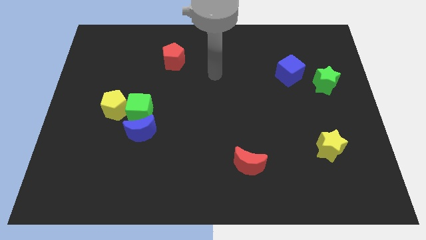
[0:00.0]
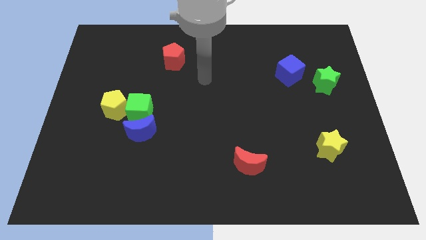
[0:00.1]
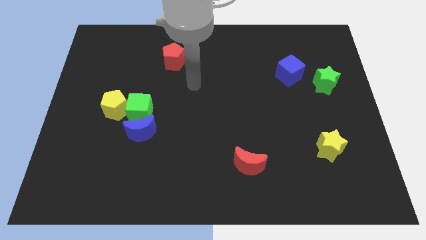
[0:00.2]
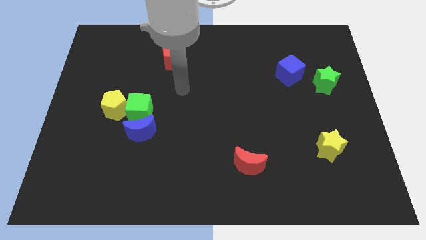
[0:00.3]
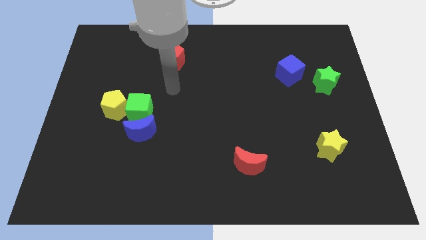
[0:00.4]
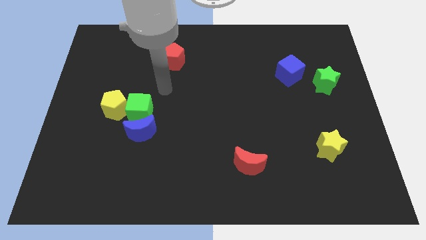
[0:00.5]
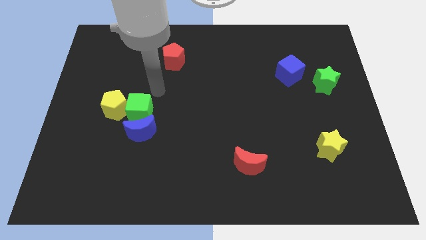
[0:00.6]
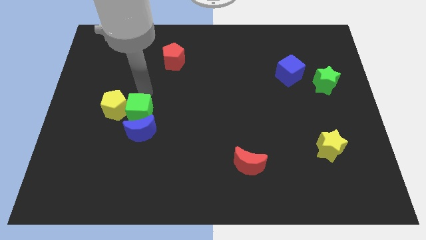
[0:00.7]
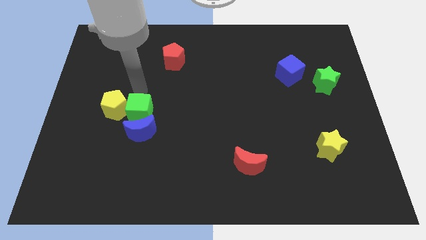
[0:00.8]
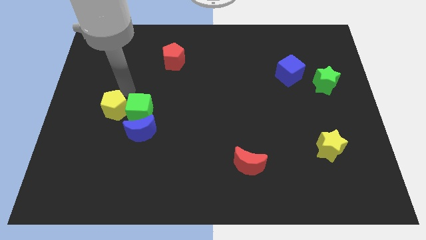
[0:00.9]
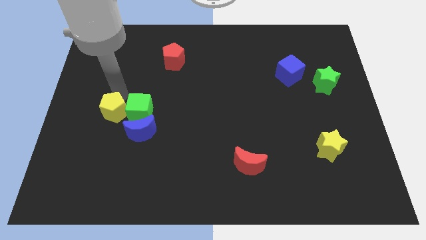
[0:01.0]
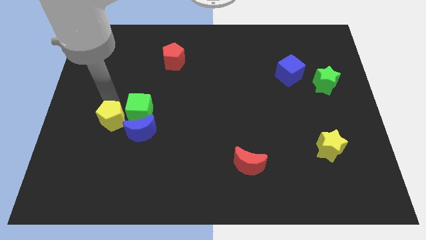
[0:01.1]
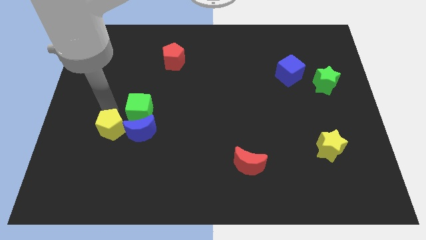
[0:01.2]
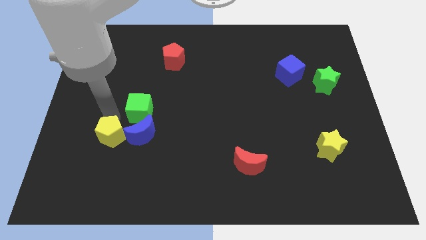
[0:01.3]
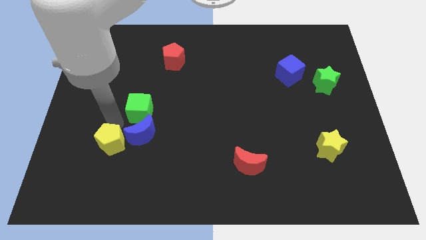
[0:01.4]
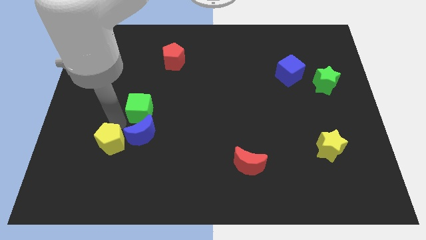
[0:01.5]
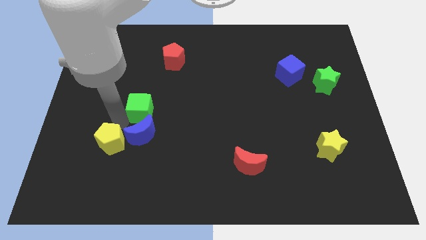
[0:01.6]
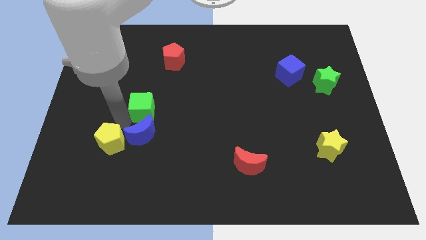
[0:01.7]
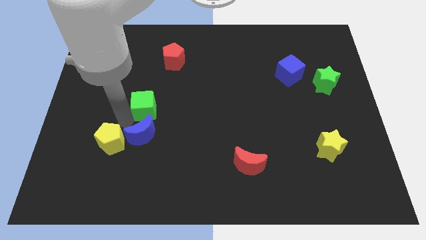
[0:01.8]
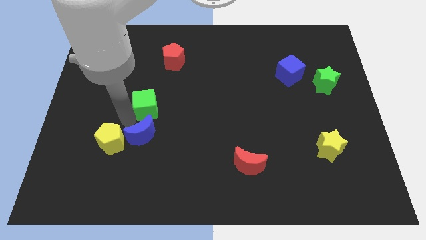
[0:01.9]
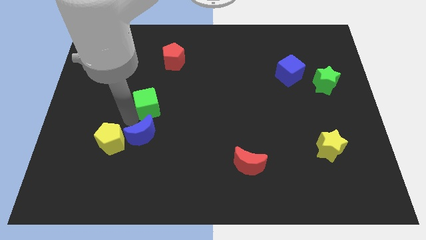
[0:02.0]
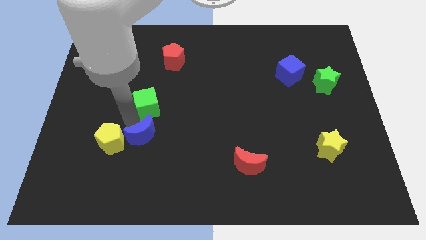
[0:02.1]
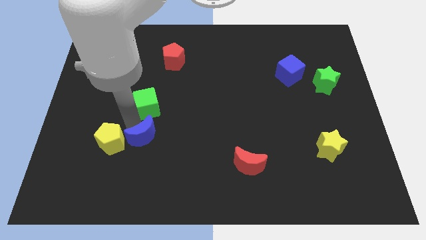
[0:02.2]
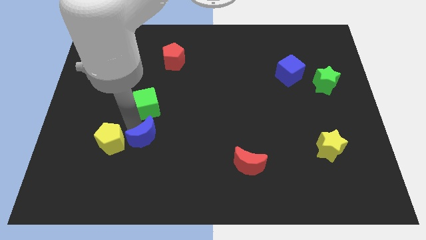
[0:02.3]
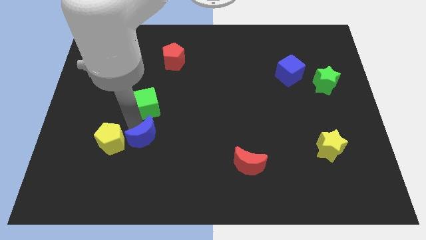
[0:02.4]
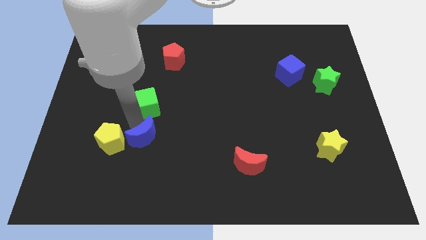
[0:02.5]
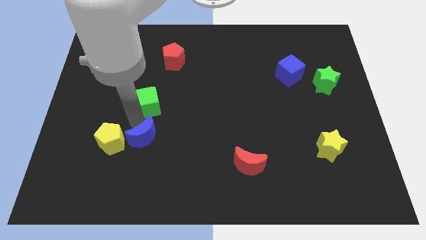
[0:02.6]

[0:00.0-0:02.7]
pull the green cube apart from the yellow pentagon and blue moon

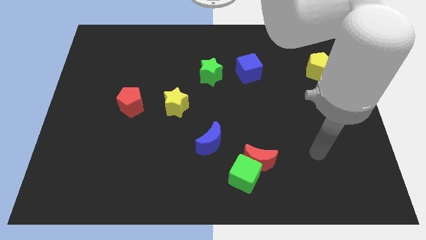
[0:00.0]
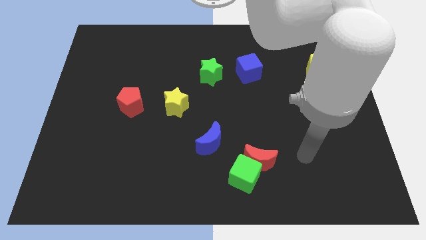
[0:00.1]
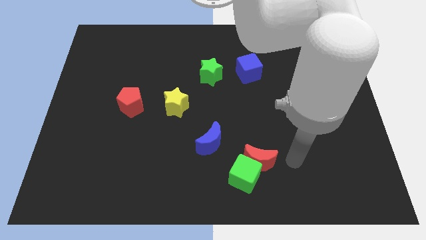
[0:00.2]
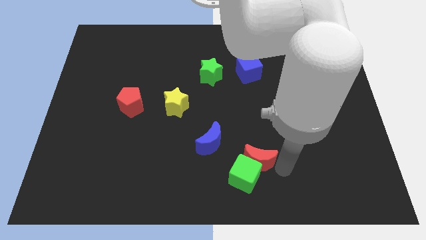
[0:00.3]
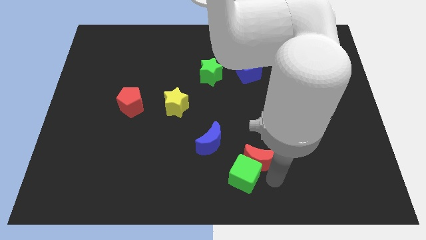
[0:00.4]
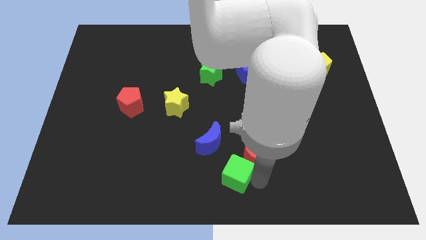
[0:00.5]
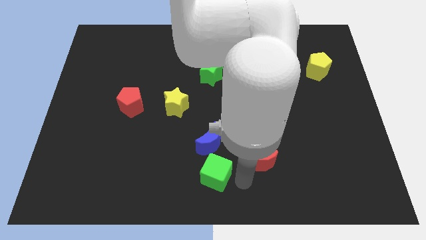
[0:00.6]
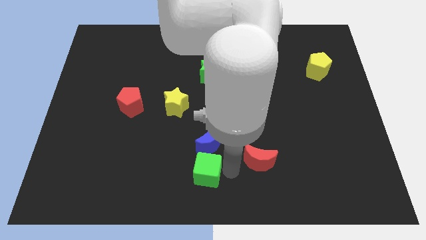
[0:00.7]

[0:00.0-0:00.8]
move the red moon away from the green cube

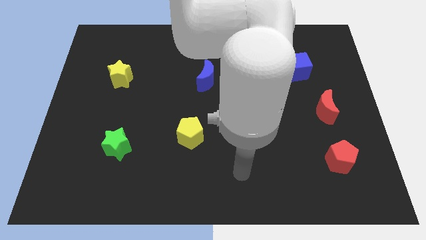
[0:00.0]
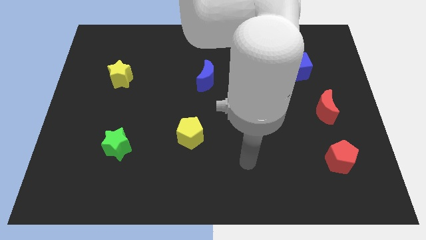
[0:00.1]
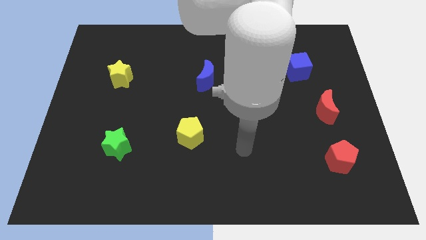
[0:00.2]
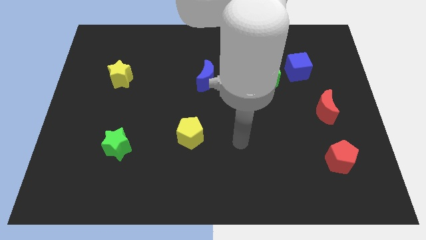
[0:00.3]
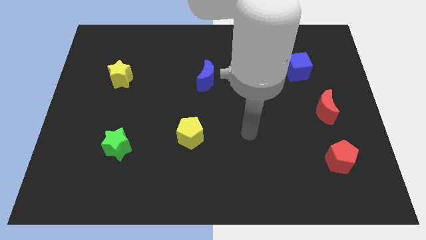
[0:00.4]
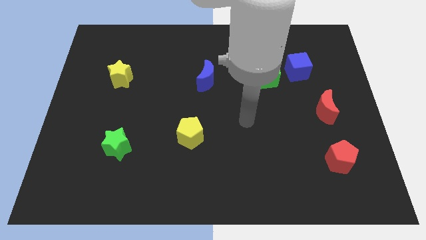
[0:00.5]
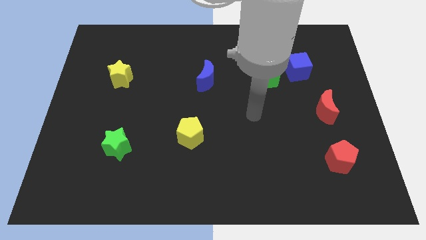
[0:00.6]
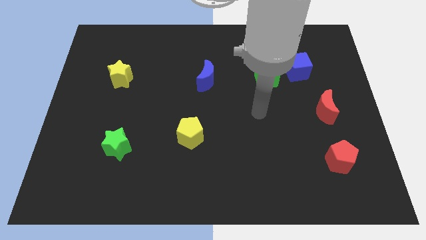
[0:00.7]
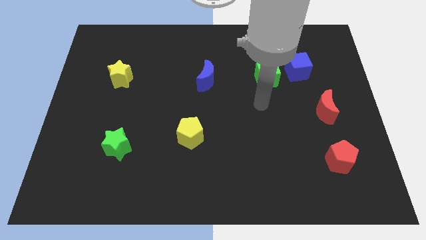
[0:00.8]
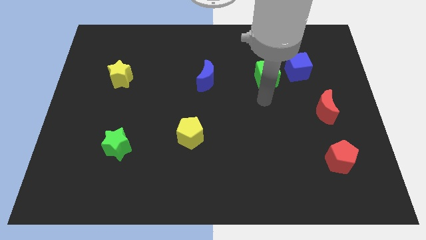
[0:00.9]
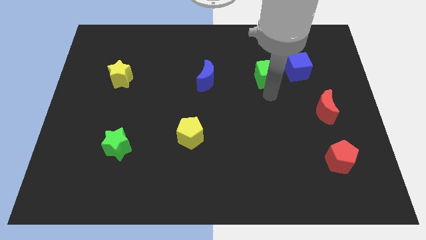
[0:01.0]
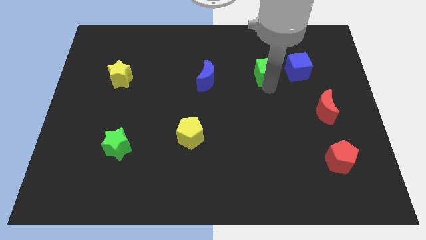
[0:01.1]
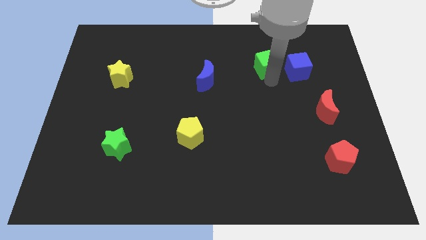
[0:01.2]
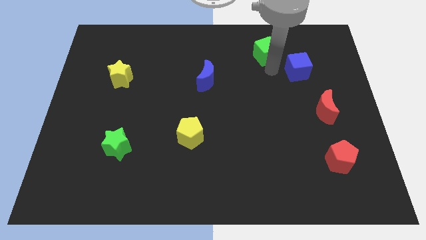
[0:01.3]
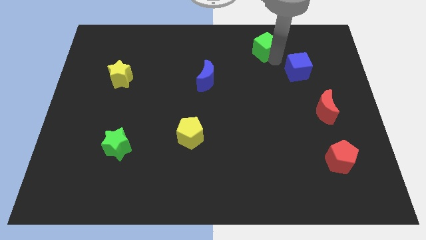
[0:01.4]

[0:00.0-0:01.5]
move the blue cube away from the green cube

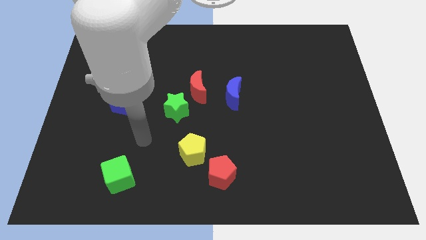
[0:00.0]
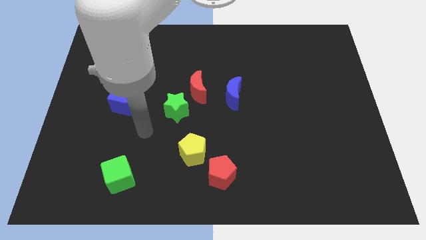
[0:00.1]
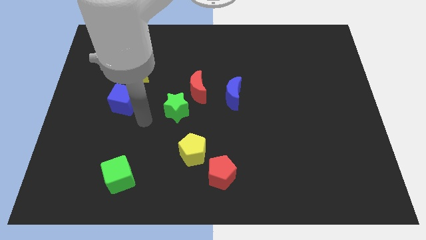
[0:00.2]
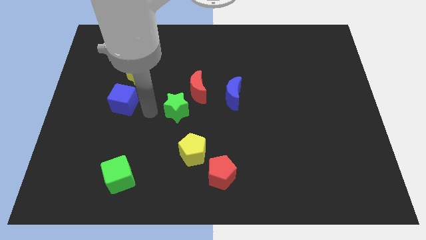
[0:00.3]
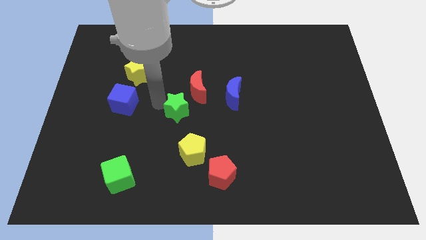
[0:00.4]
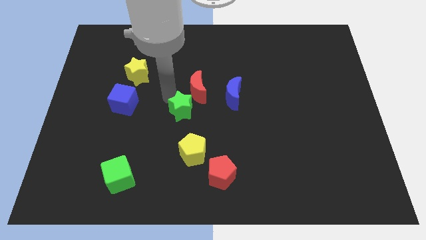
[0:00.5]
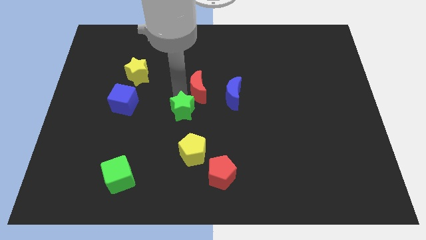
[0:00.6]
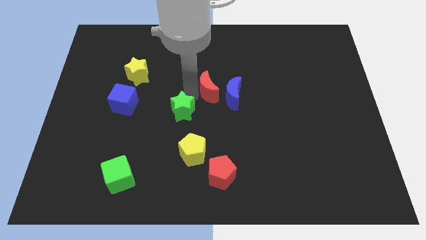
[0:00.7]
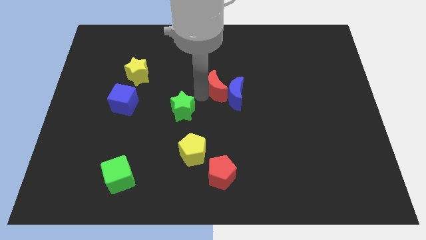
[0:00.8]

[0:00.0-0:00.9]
pull the green star apart from the red moon

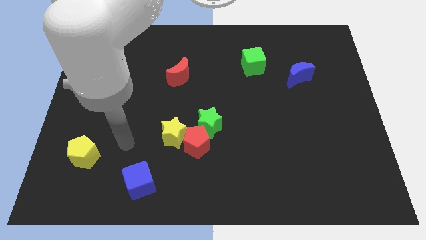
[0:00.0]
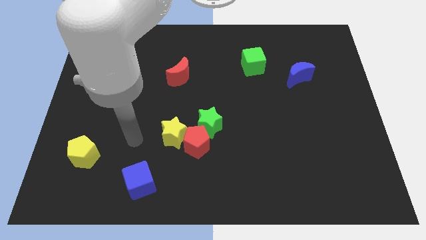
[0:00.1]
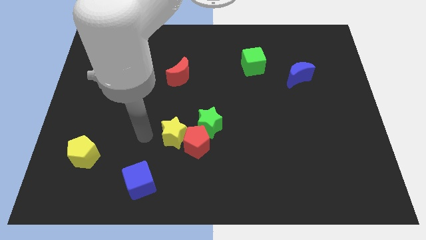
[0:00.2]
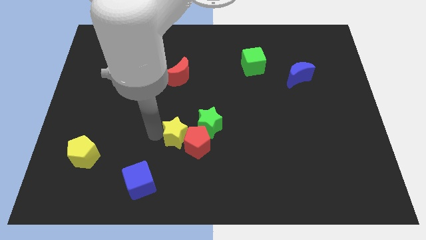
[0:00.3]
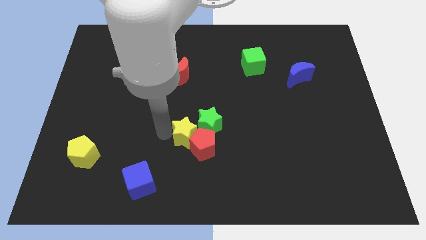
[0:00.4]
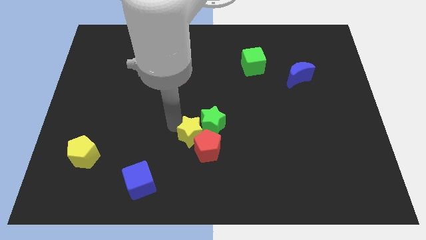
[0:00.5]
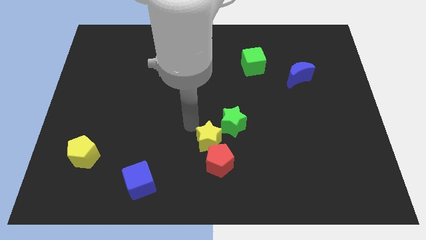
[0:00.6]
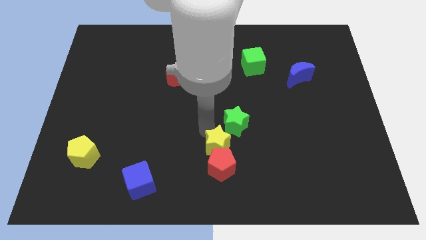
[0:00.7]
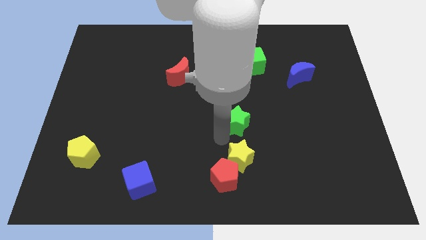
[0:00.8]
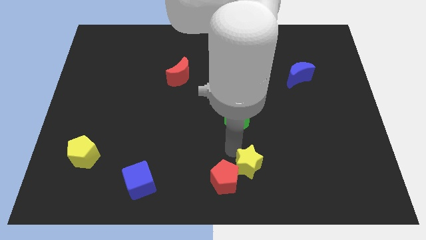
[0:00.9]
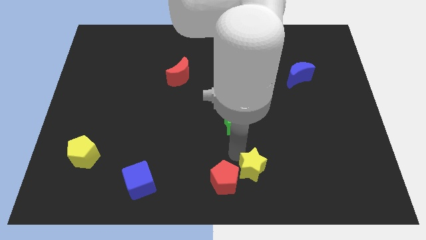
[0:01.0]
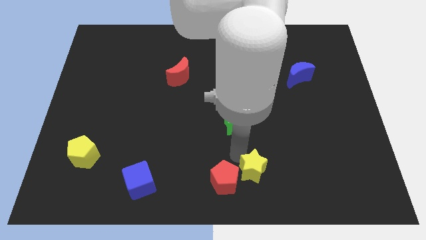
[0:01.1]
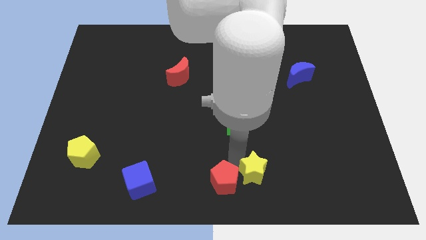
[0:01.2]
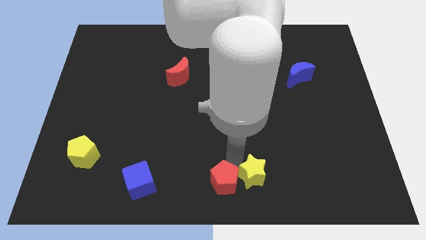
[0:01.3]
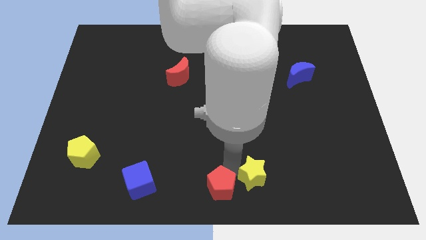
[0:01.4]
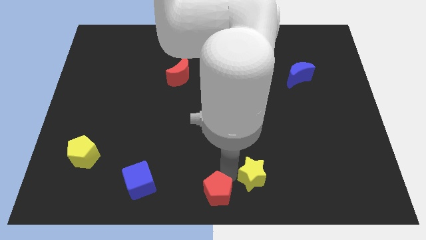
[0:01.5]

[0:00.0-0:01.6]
separate the red pentagon from the yellow star and green star

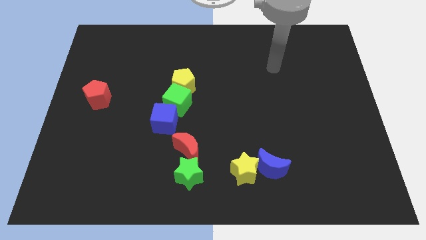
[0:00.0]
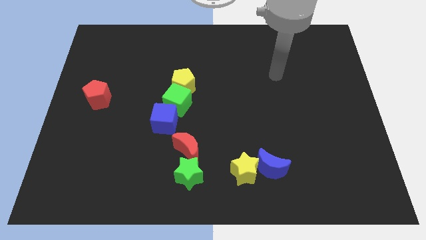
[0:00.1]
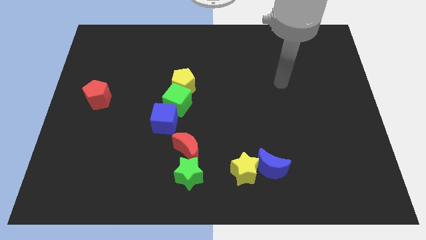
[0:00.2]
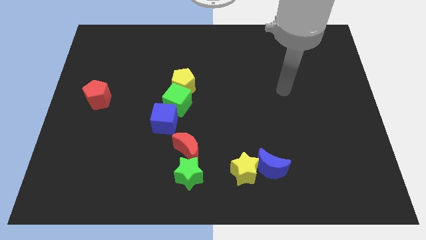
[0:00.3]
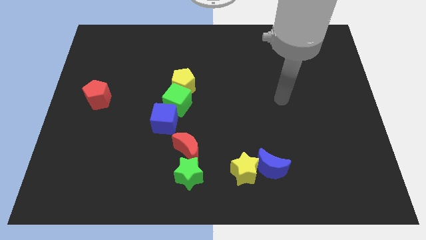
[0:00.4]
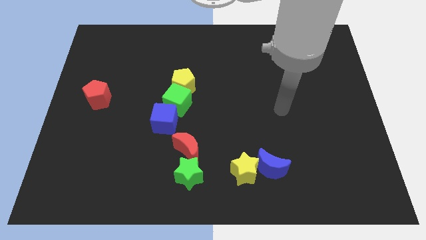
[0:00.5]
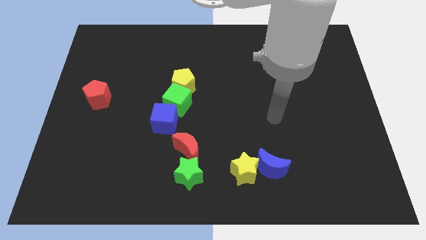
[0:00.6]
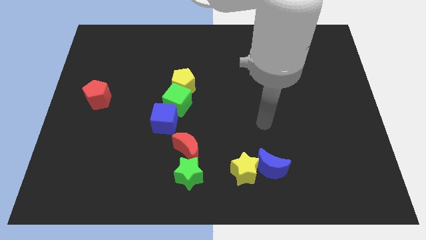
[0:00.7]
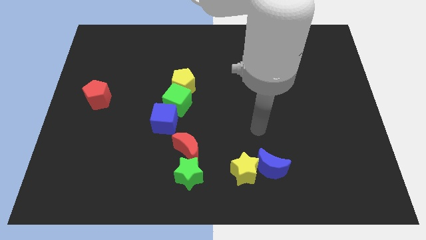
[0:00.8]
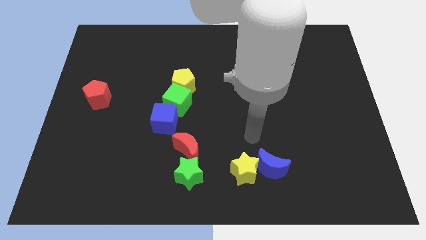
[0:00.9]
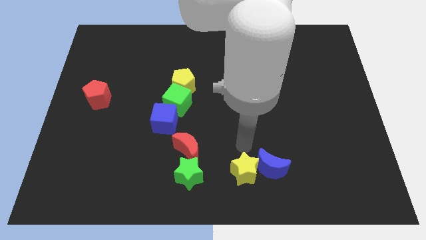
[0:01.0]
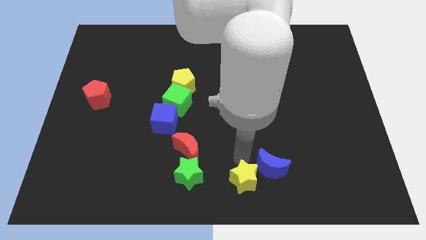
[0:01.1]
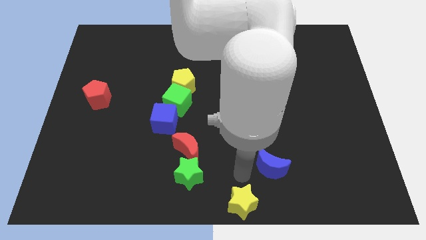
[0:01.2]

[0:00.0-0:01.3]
pull the blue moon apart from the yellow star

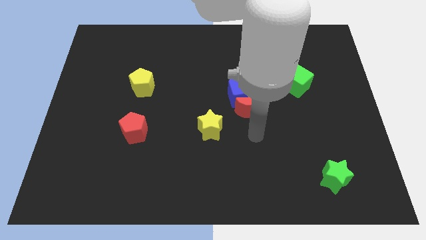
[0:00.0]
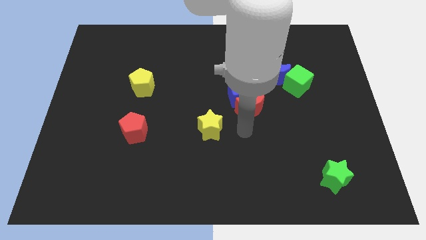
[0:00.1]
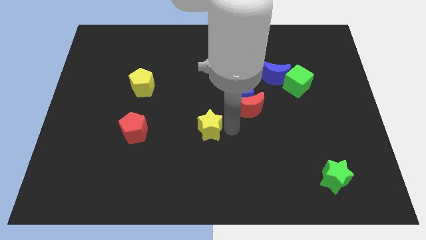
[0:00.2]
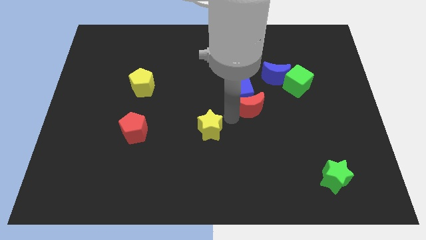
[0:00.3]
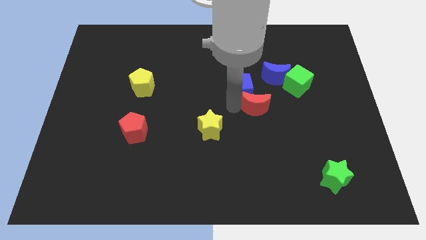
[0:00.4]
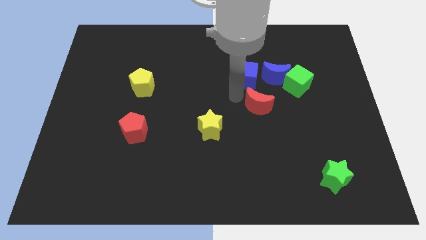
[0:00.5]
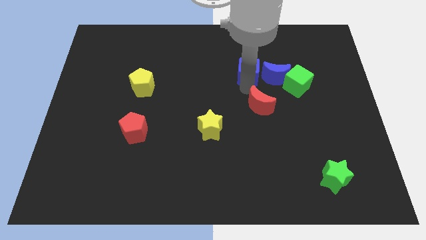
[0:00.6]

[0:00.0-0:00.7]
pull the red moon apart from the blue cube
